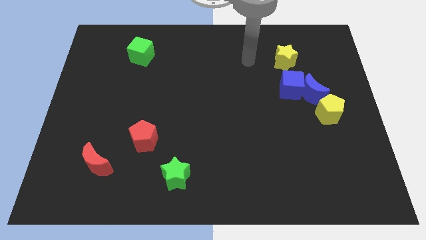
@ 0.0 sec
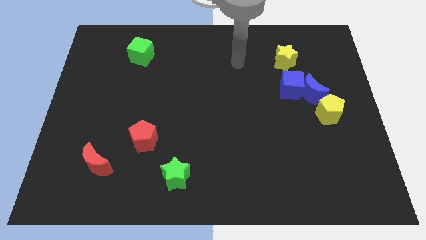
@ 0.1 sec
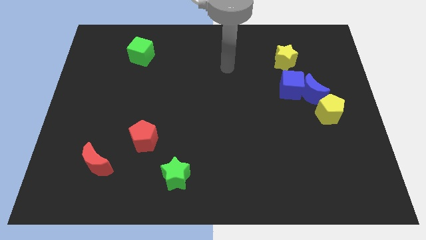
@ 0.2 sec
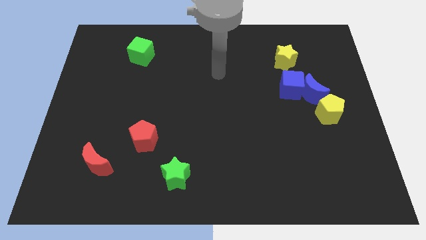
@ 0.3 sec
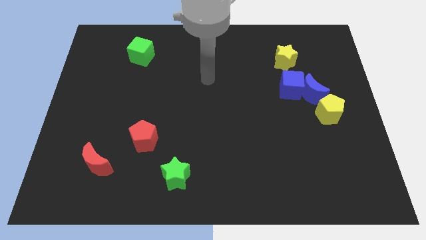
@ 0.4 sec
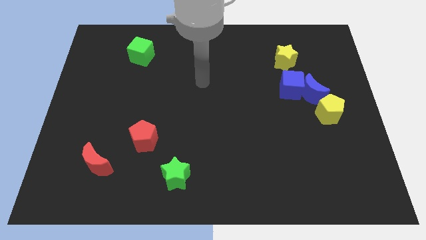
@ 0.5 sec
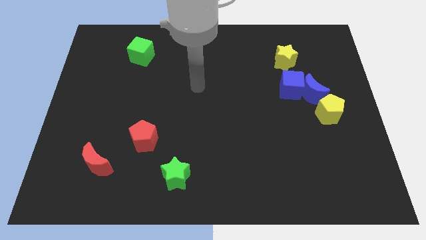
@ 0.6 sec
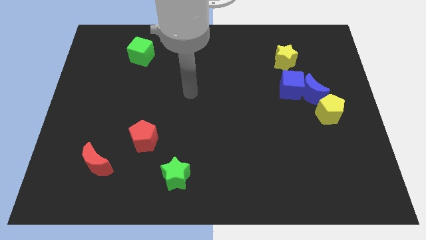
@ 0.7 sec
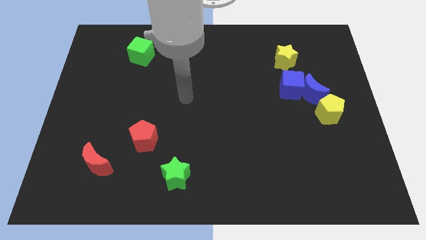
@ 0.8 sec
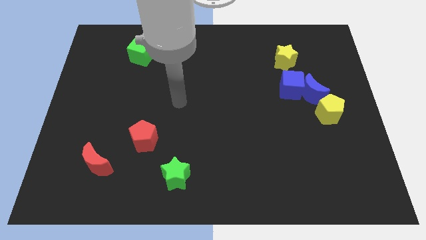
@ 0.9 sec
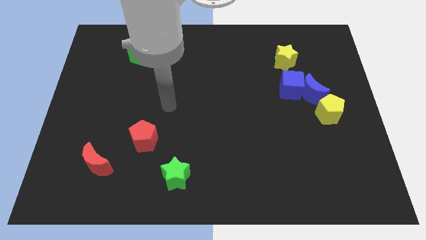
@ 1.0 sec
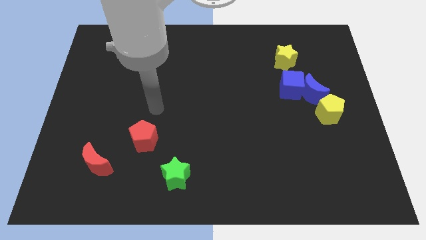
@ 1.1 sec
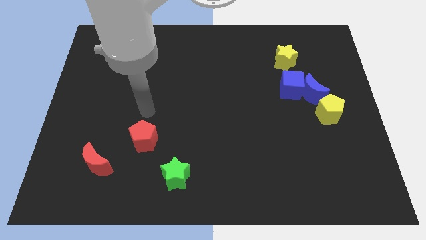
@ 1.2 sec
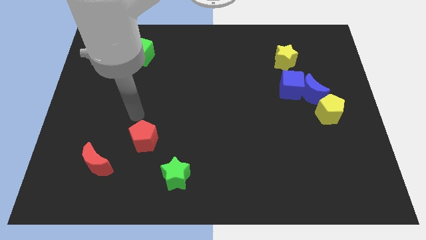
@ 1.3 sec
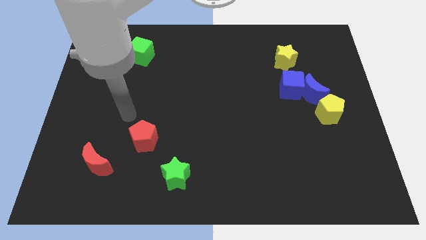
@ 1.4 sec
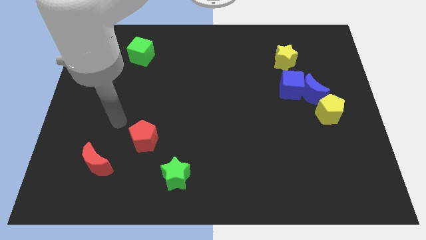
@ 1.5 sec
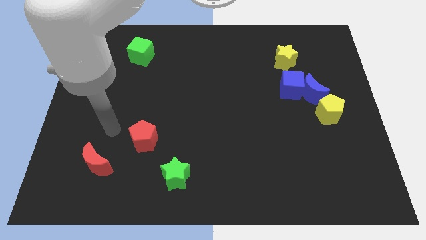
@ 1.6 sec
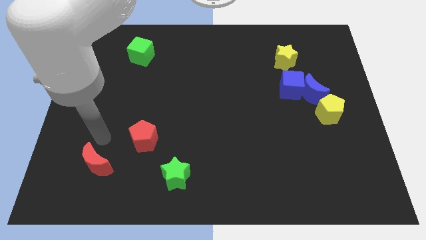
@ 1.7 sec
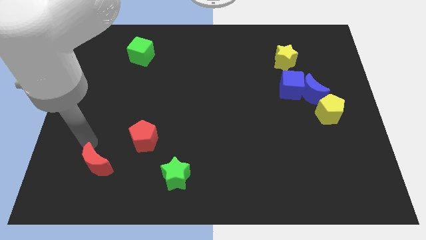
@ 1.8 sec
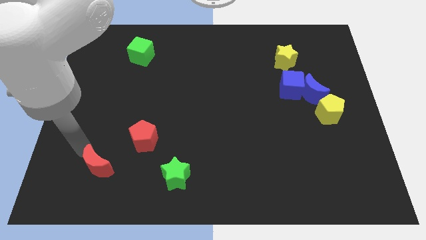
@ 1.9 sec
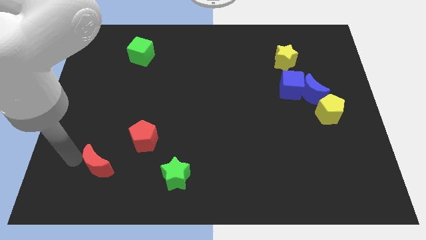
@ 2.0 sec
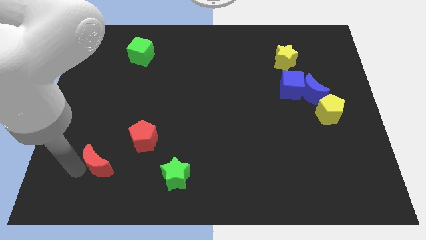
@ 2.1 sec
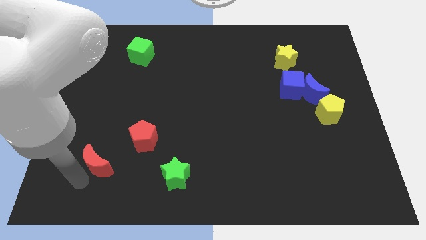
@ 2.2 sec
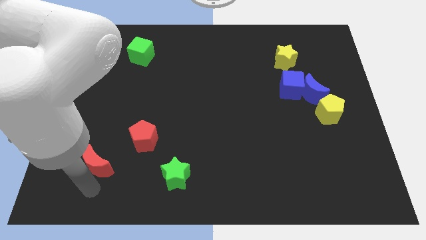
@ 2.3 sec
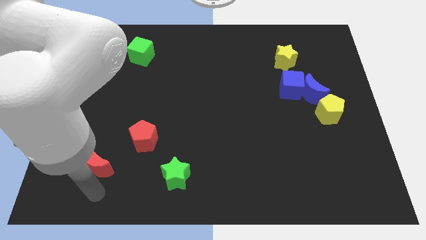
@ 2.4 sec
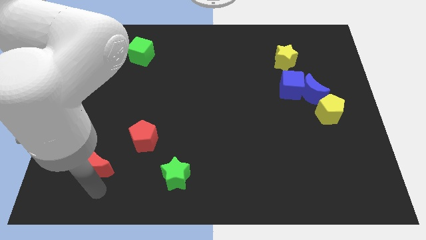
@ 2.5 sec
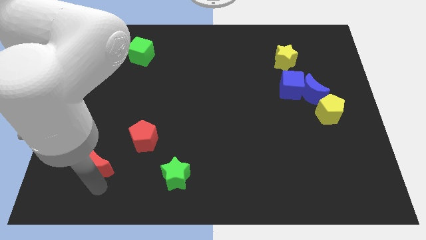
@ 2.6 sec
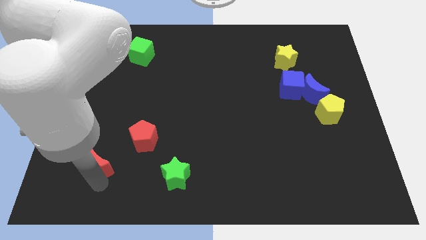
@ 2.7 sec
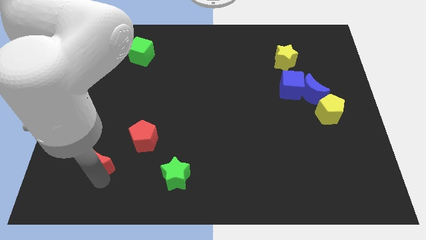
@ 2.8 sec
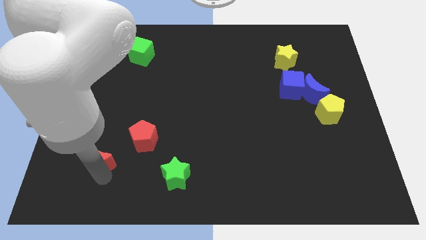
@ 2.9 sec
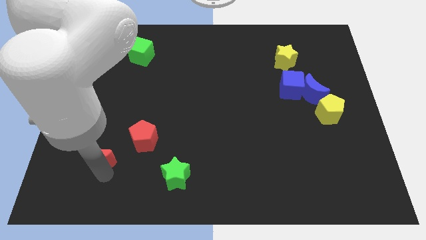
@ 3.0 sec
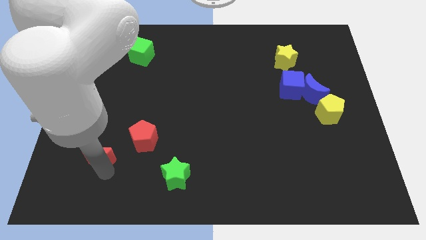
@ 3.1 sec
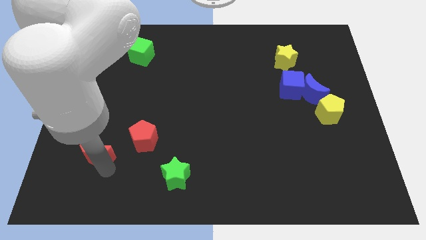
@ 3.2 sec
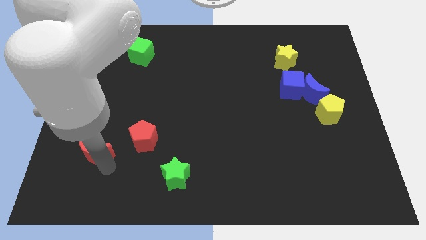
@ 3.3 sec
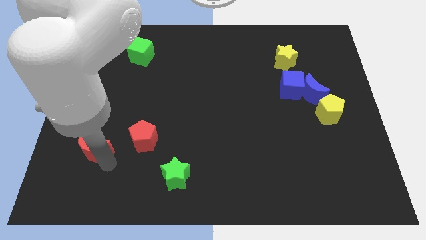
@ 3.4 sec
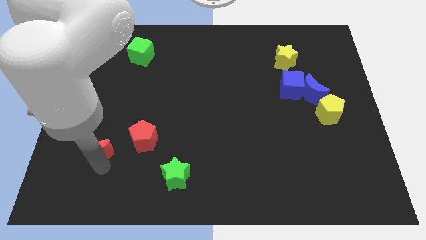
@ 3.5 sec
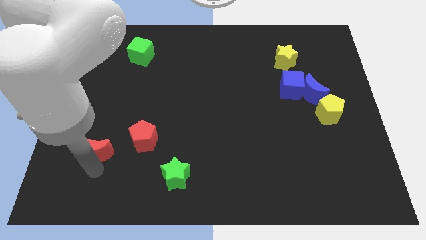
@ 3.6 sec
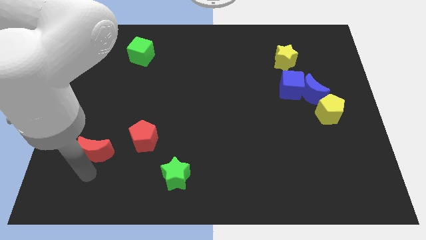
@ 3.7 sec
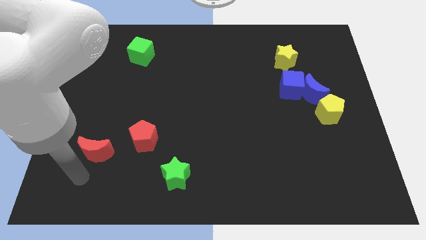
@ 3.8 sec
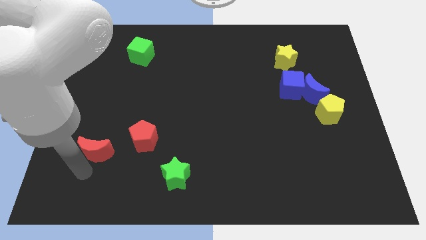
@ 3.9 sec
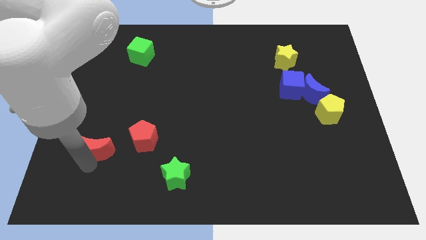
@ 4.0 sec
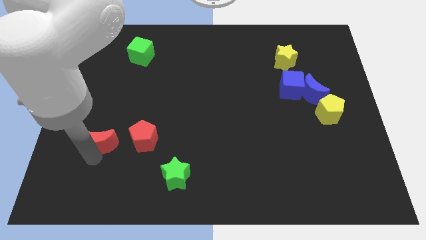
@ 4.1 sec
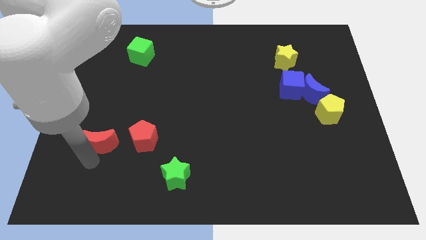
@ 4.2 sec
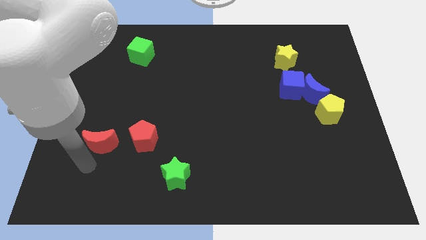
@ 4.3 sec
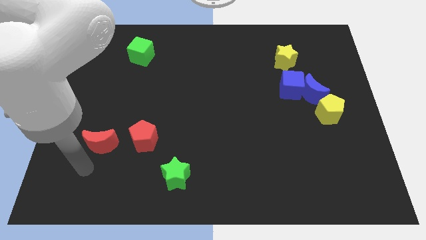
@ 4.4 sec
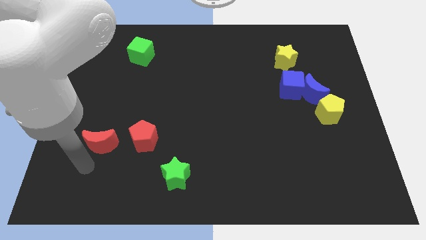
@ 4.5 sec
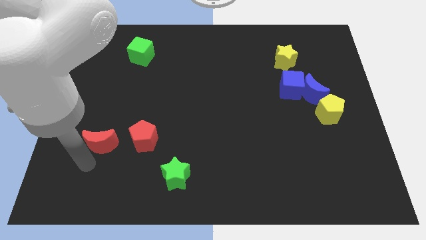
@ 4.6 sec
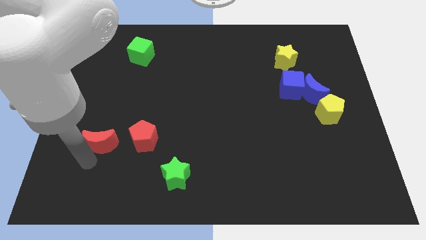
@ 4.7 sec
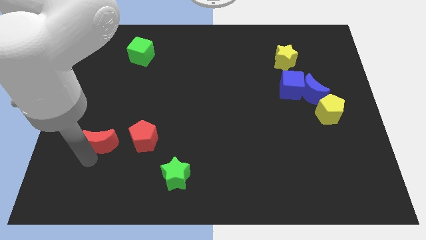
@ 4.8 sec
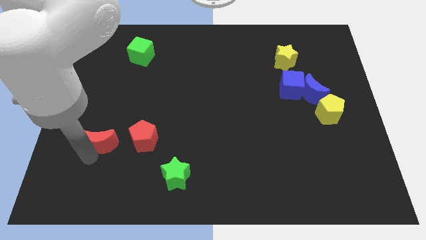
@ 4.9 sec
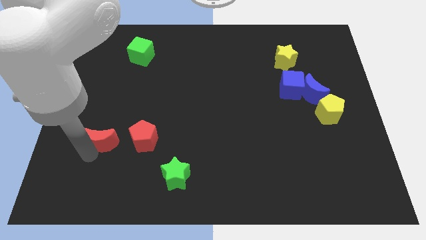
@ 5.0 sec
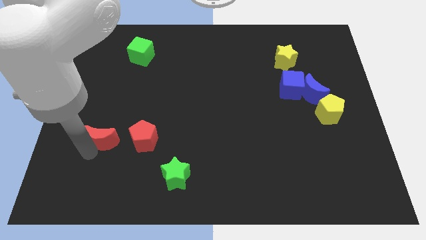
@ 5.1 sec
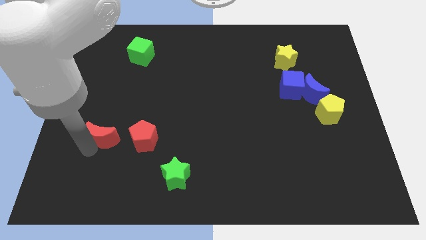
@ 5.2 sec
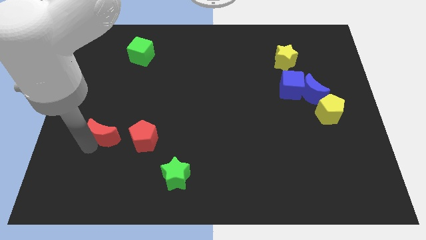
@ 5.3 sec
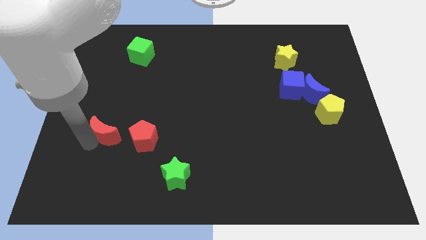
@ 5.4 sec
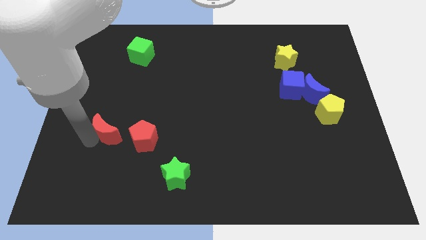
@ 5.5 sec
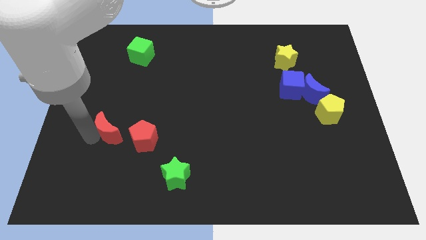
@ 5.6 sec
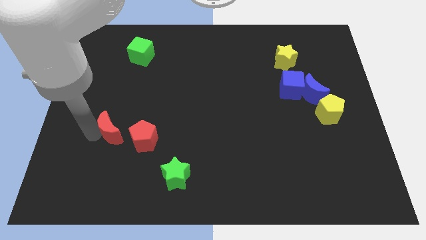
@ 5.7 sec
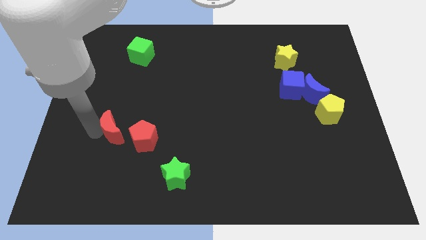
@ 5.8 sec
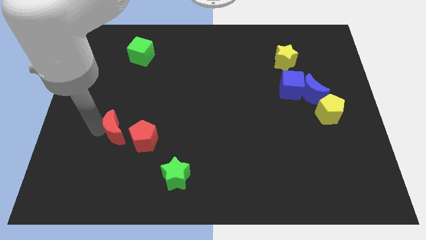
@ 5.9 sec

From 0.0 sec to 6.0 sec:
slightly move the red moon up and right diagonally

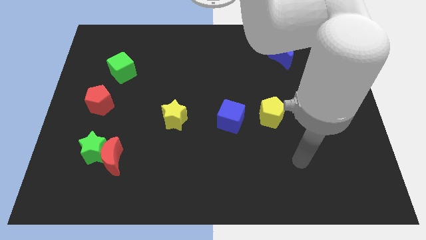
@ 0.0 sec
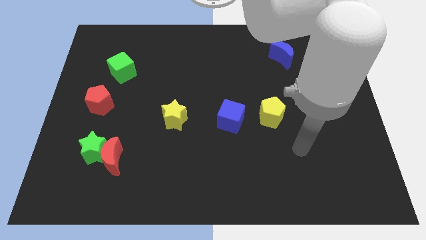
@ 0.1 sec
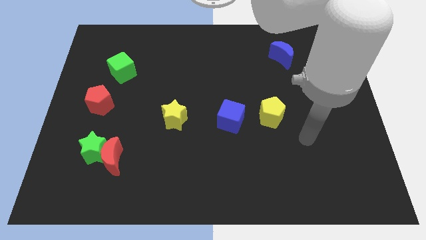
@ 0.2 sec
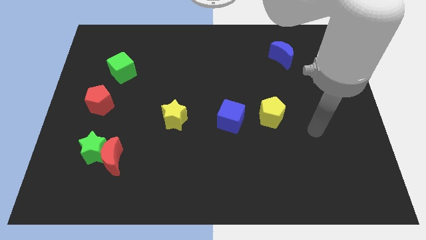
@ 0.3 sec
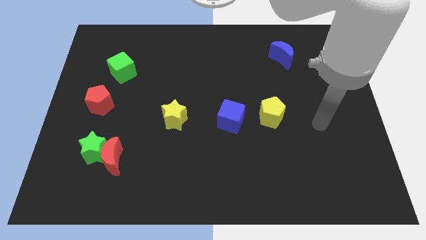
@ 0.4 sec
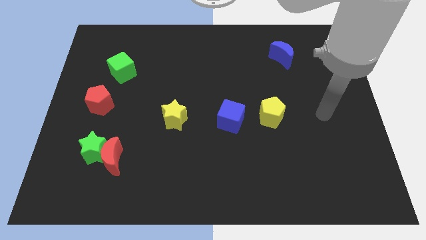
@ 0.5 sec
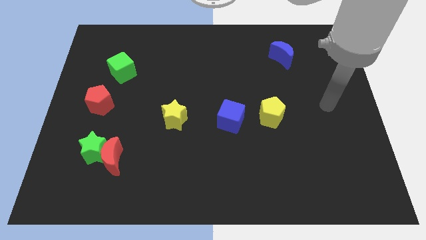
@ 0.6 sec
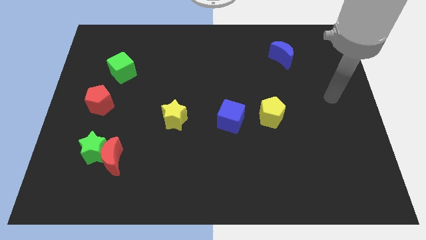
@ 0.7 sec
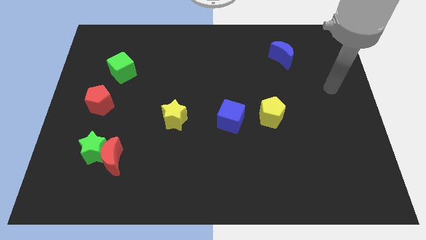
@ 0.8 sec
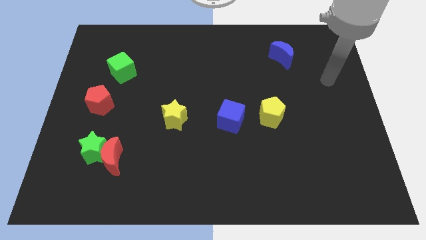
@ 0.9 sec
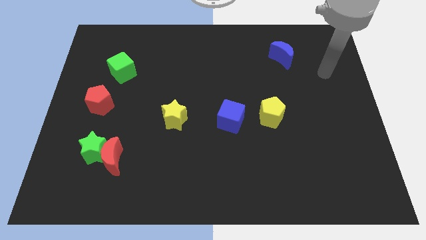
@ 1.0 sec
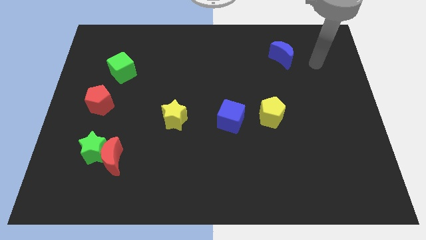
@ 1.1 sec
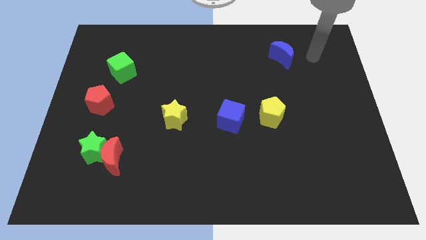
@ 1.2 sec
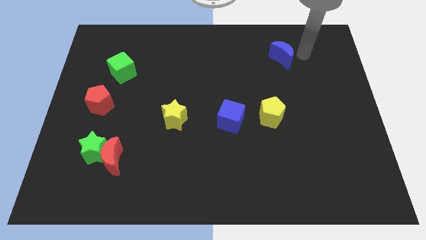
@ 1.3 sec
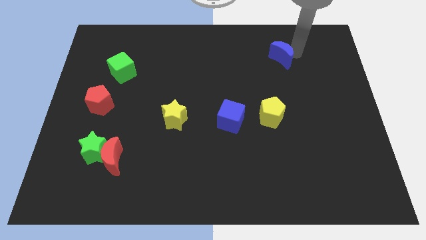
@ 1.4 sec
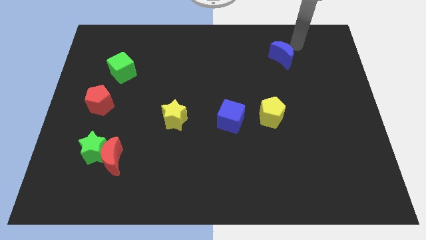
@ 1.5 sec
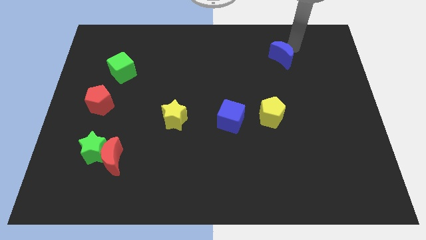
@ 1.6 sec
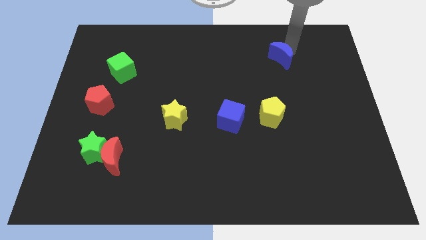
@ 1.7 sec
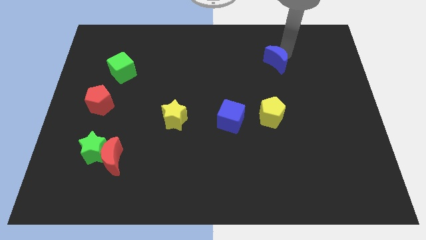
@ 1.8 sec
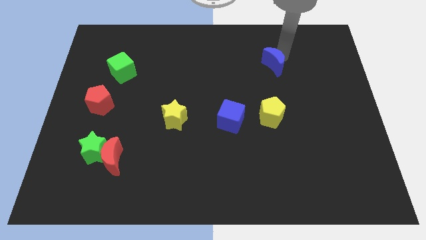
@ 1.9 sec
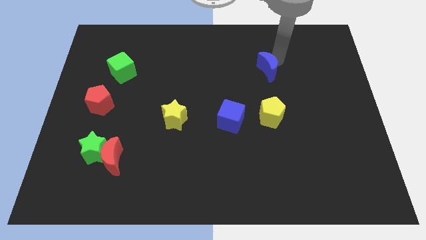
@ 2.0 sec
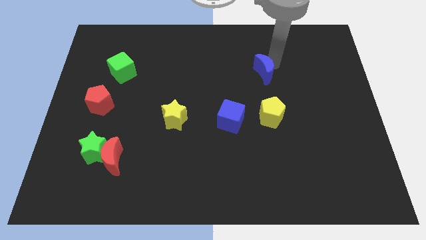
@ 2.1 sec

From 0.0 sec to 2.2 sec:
slide the blue moon diagonally down and left a little bit
